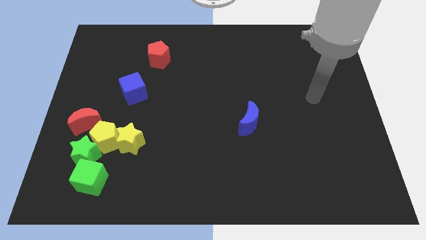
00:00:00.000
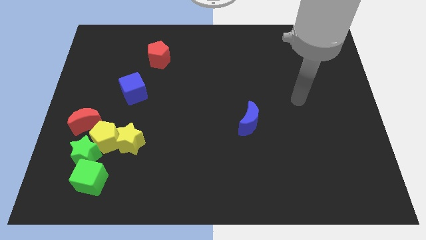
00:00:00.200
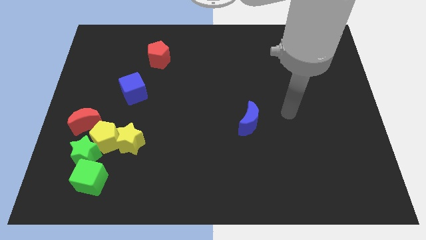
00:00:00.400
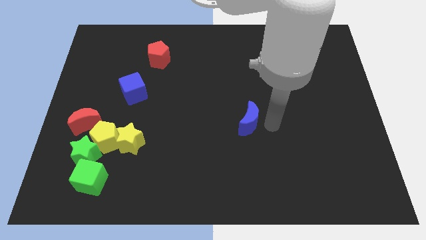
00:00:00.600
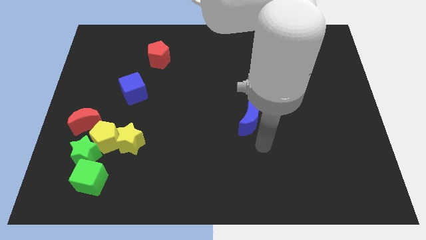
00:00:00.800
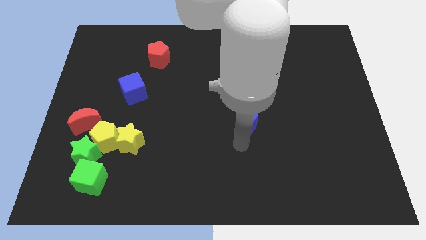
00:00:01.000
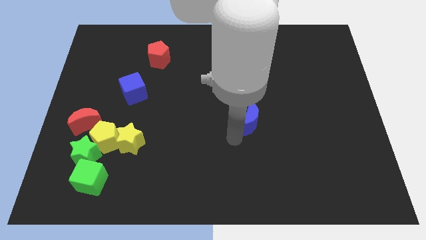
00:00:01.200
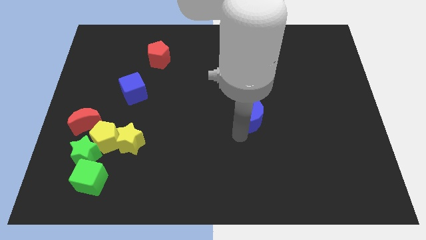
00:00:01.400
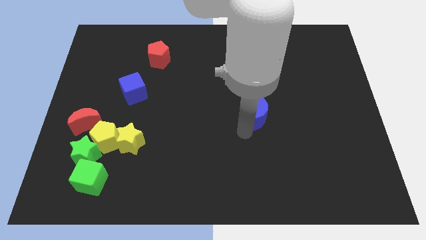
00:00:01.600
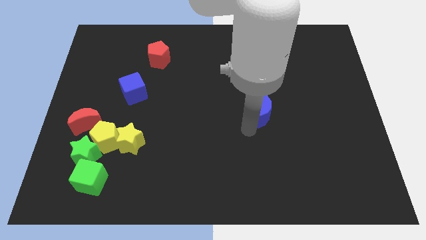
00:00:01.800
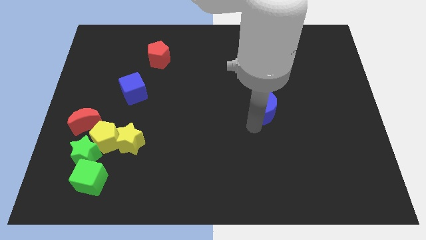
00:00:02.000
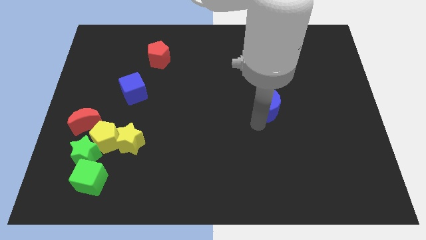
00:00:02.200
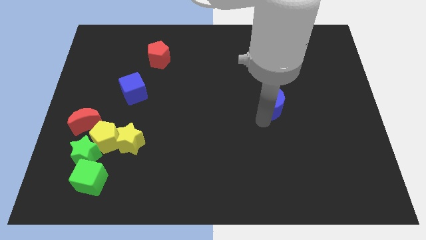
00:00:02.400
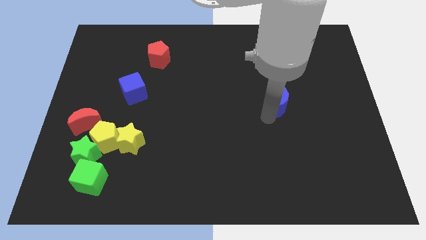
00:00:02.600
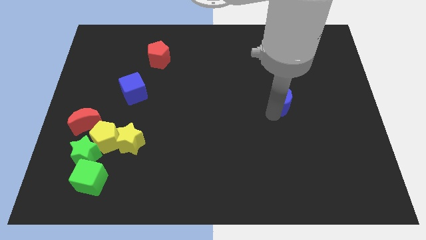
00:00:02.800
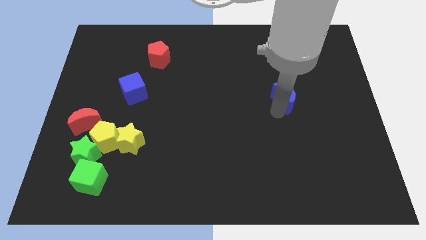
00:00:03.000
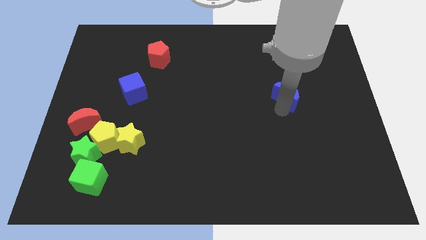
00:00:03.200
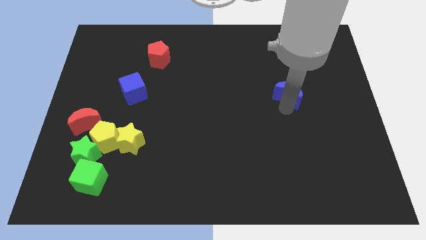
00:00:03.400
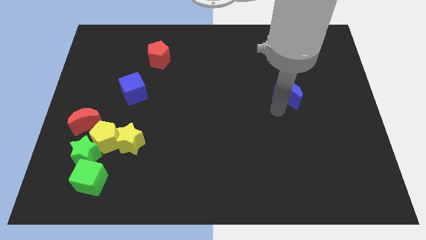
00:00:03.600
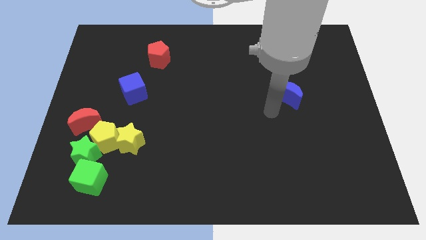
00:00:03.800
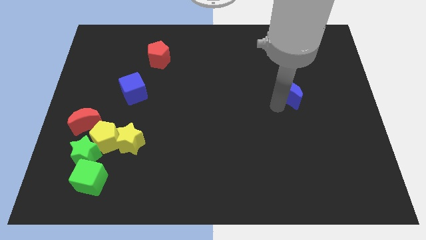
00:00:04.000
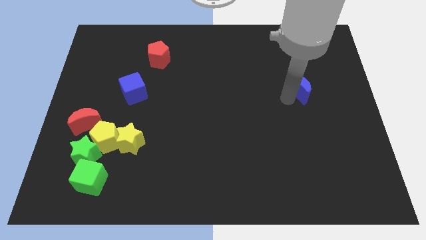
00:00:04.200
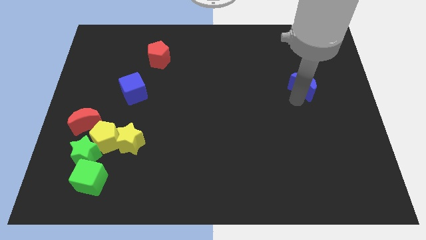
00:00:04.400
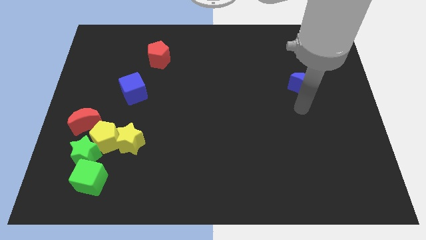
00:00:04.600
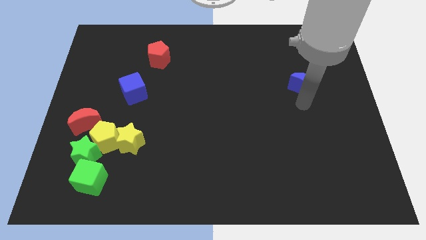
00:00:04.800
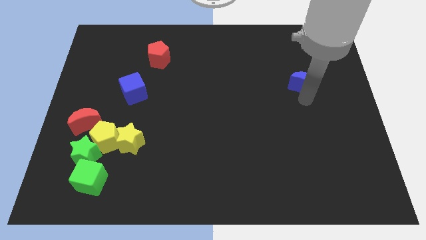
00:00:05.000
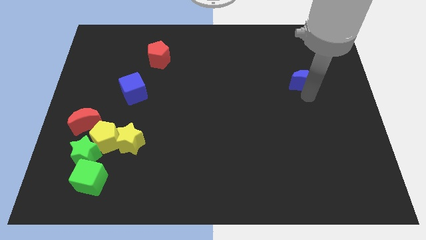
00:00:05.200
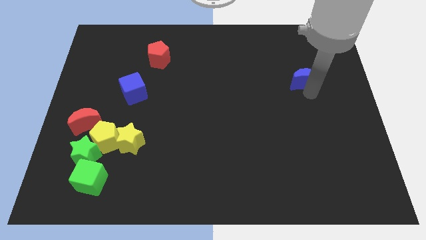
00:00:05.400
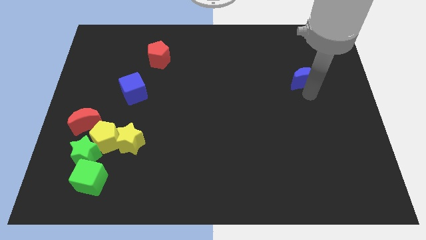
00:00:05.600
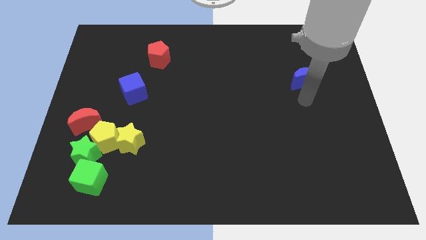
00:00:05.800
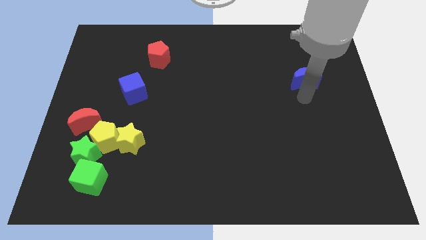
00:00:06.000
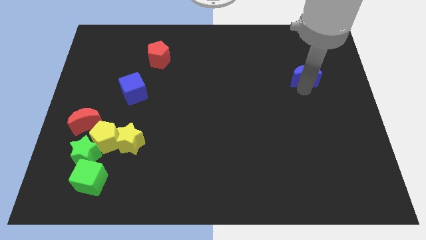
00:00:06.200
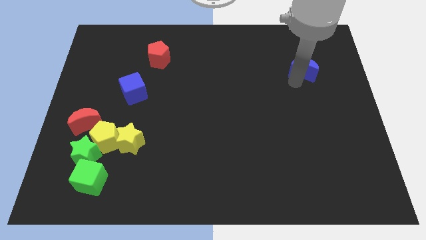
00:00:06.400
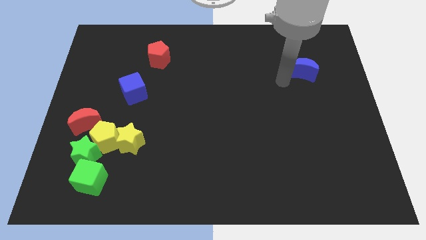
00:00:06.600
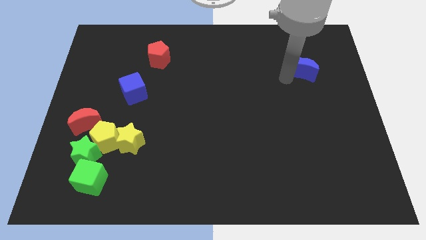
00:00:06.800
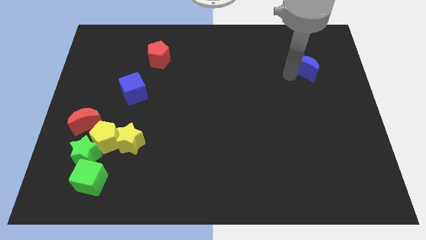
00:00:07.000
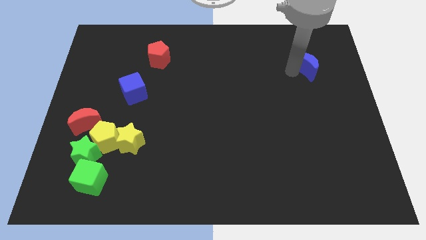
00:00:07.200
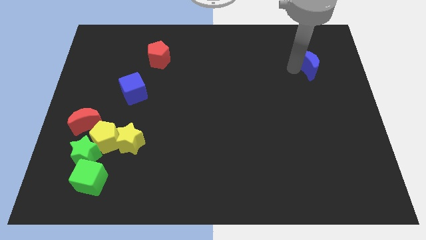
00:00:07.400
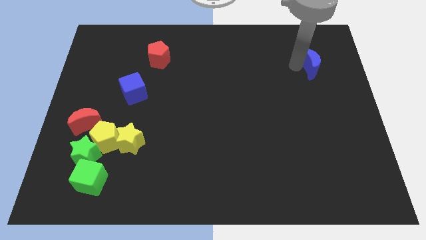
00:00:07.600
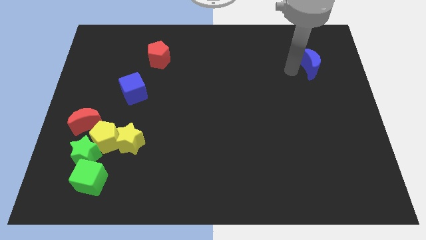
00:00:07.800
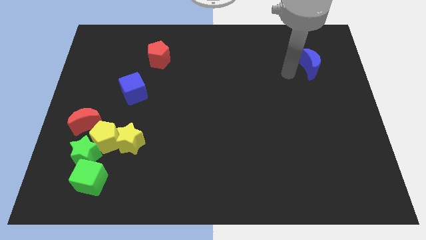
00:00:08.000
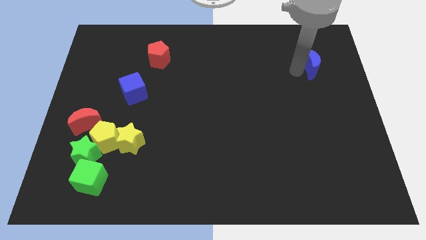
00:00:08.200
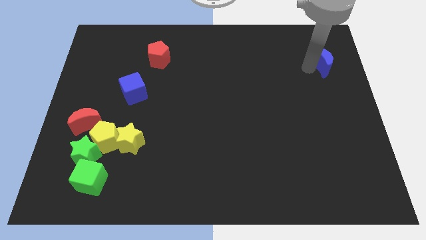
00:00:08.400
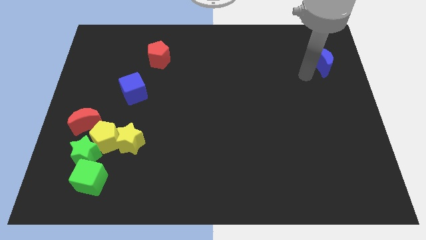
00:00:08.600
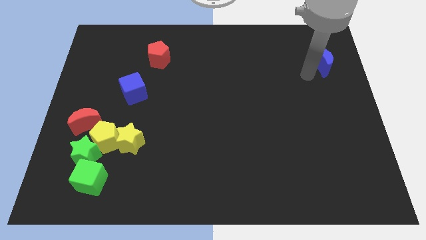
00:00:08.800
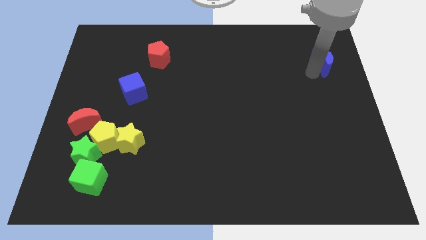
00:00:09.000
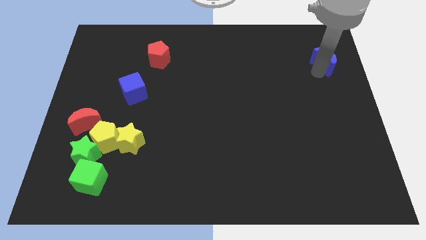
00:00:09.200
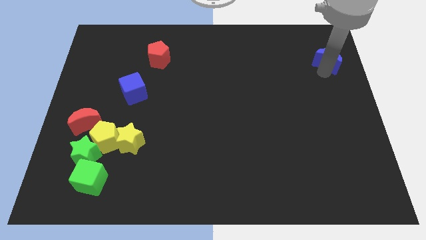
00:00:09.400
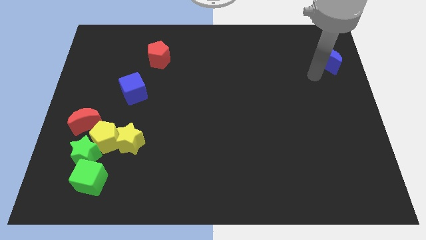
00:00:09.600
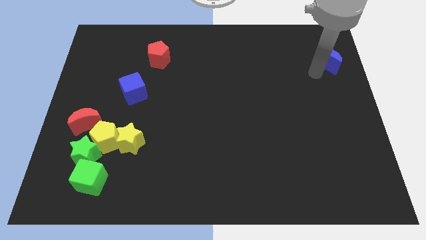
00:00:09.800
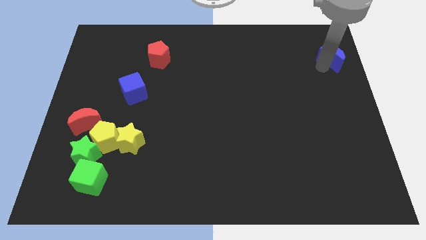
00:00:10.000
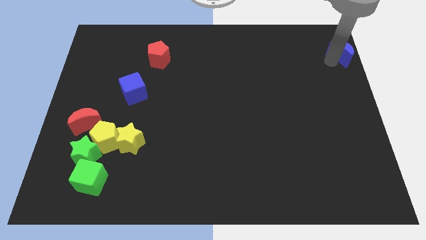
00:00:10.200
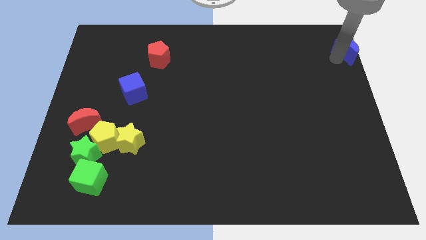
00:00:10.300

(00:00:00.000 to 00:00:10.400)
put the blue moon to the top right

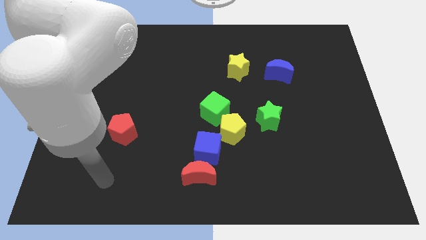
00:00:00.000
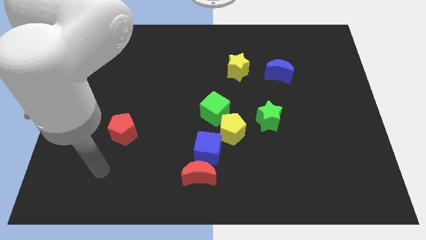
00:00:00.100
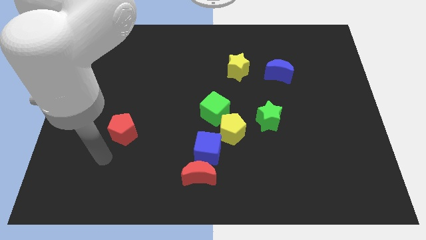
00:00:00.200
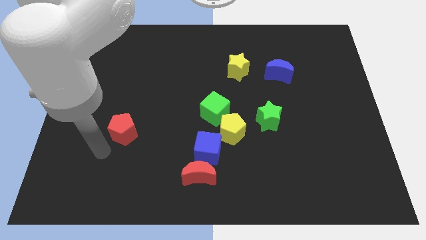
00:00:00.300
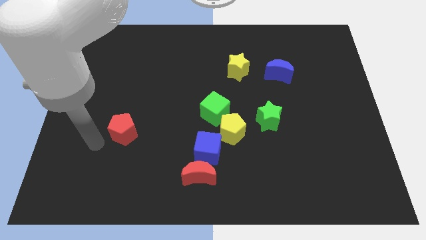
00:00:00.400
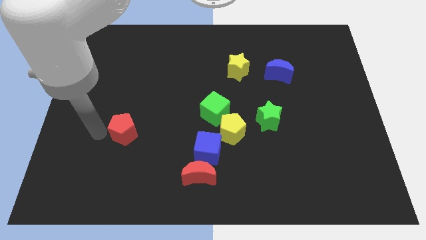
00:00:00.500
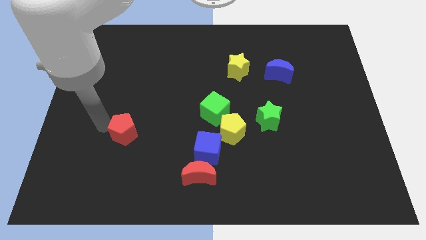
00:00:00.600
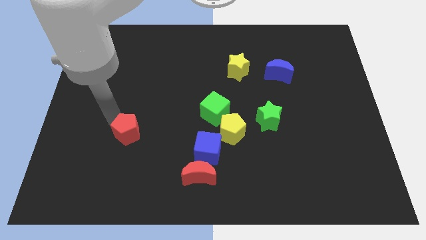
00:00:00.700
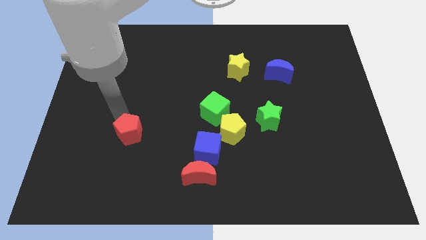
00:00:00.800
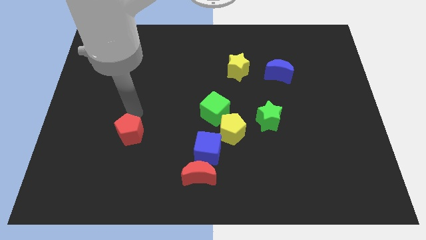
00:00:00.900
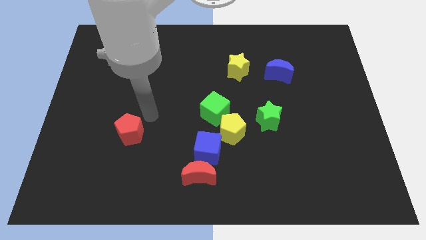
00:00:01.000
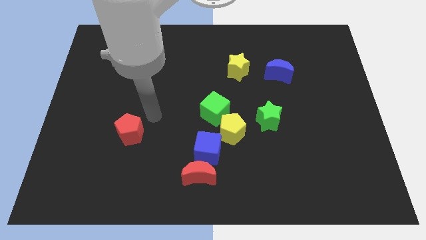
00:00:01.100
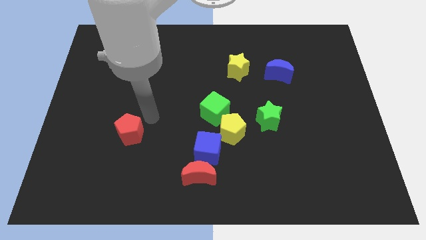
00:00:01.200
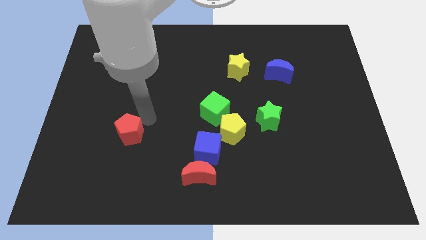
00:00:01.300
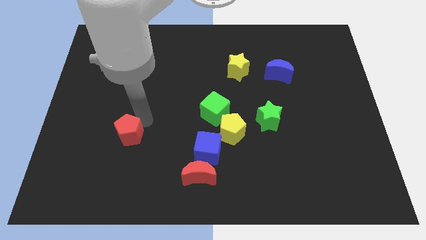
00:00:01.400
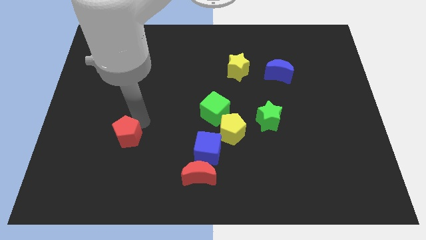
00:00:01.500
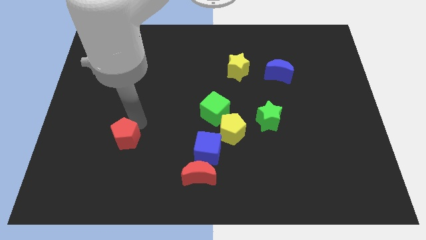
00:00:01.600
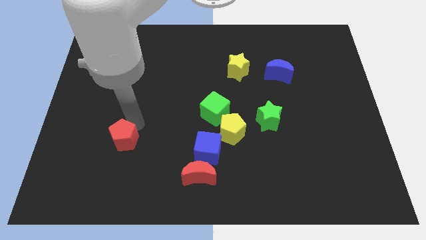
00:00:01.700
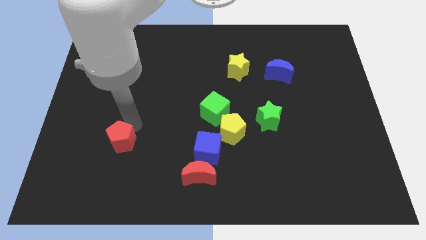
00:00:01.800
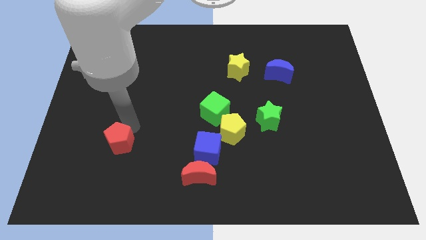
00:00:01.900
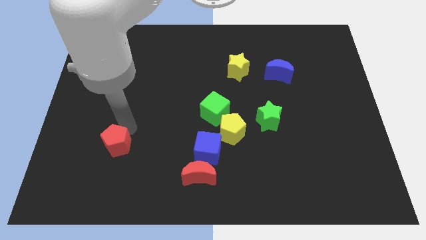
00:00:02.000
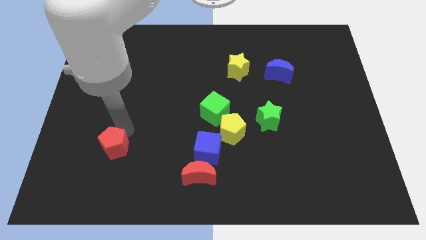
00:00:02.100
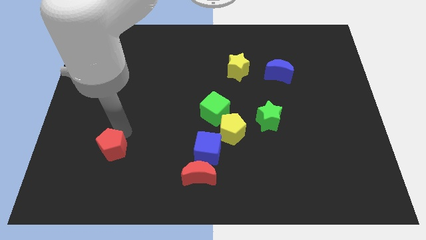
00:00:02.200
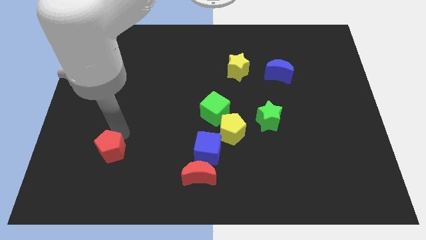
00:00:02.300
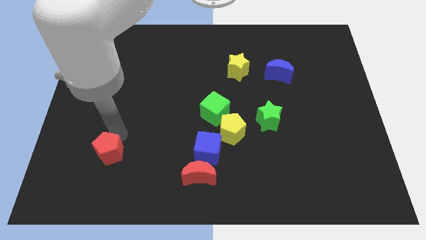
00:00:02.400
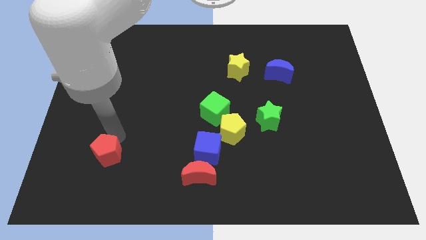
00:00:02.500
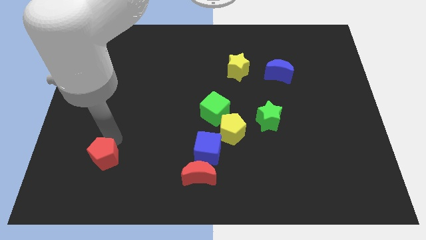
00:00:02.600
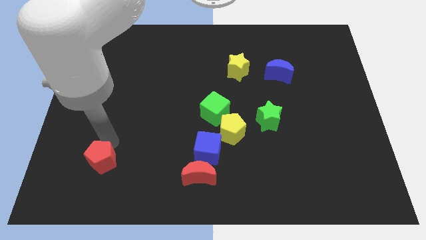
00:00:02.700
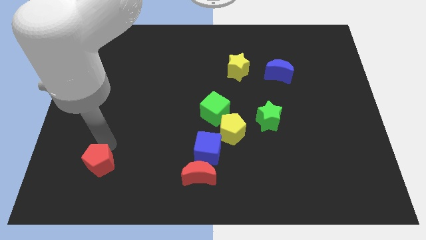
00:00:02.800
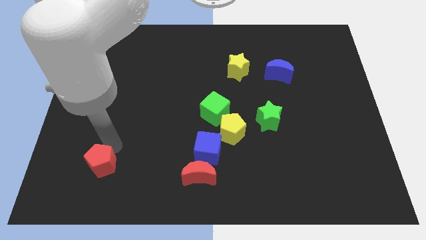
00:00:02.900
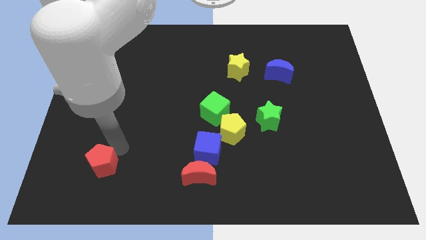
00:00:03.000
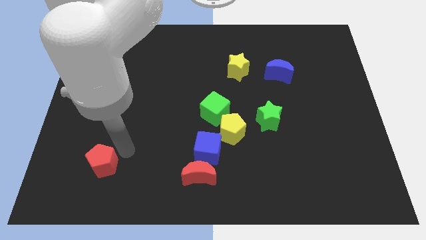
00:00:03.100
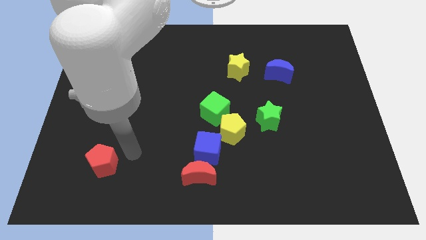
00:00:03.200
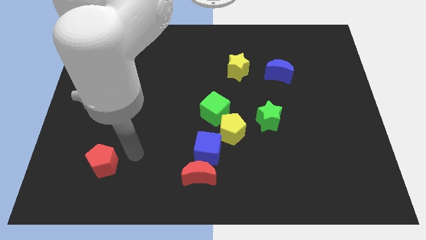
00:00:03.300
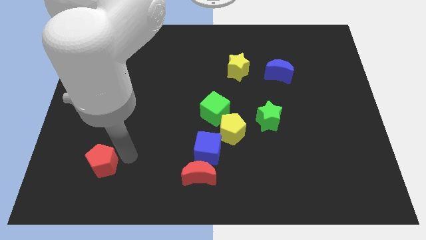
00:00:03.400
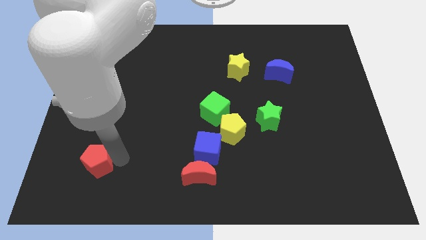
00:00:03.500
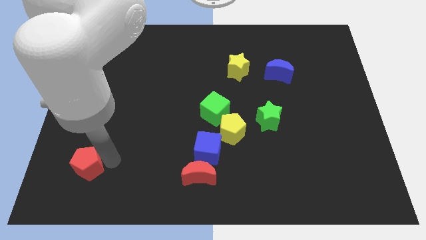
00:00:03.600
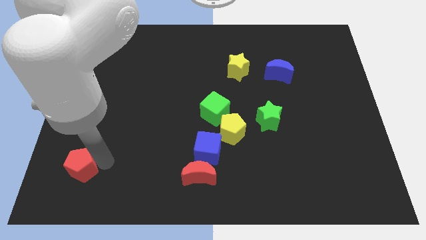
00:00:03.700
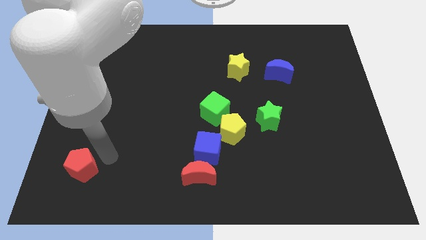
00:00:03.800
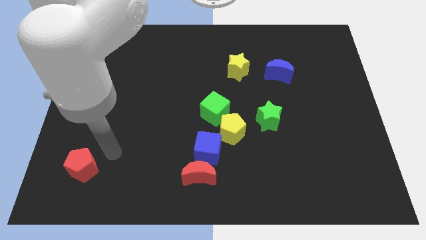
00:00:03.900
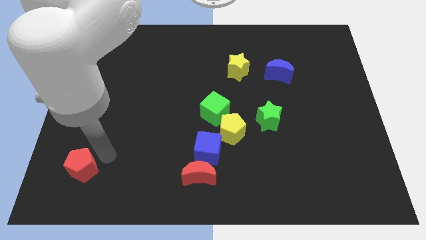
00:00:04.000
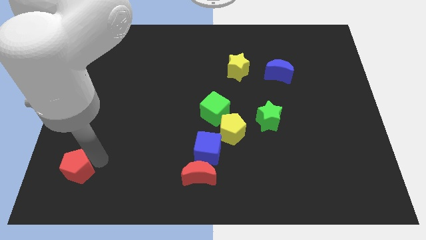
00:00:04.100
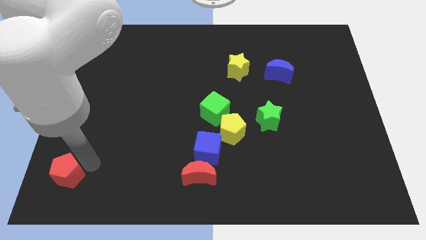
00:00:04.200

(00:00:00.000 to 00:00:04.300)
slide the red pentagon to the bottom left
